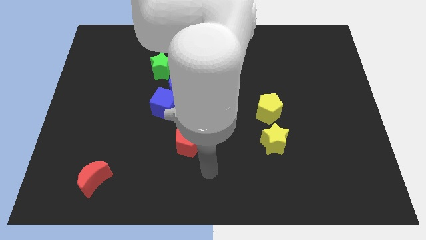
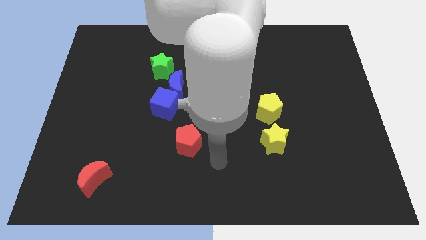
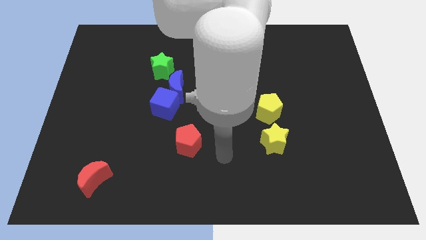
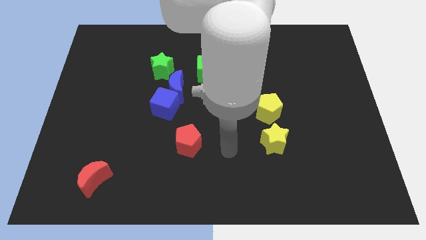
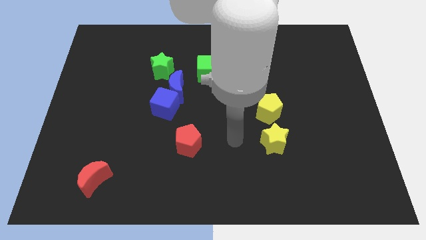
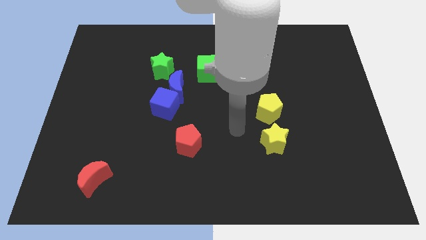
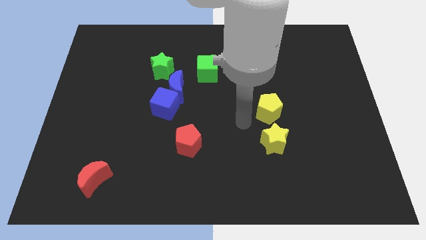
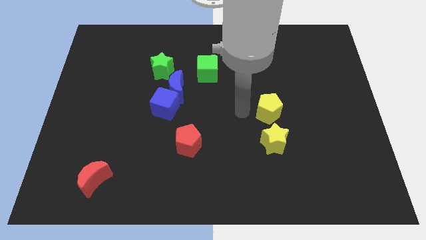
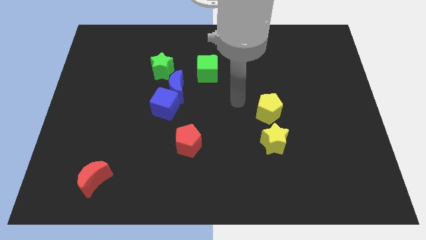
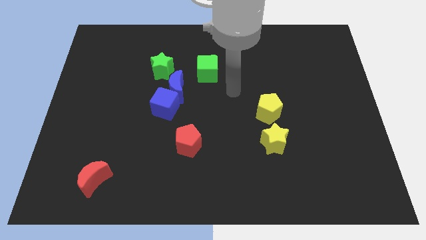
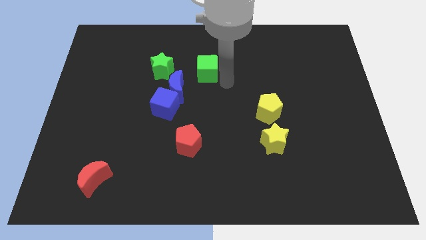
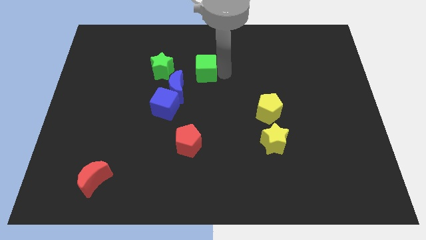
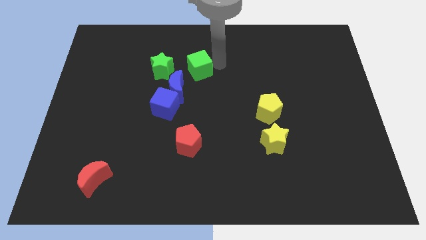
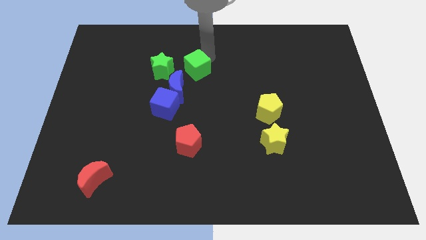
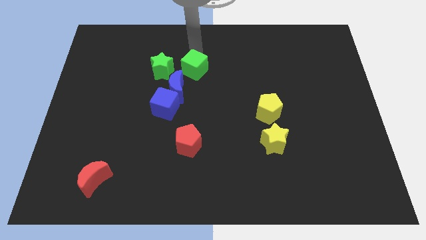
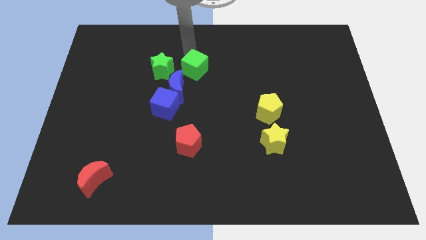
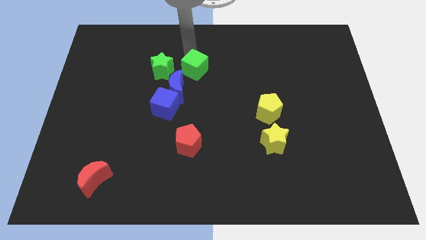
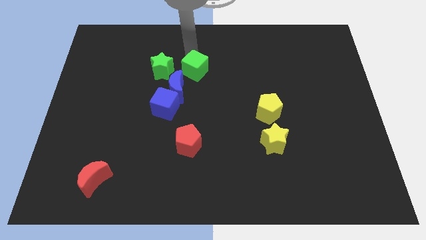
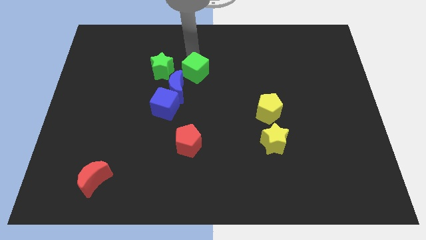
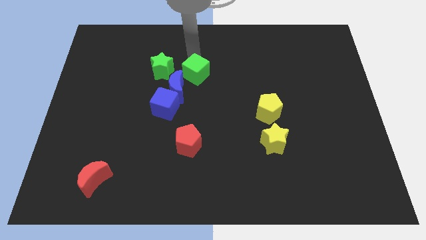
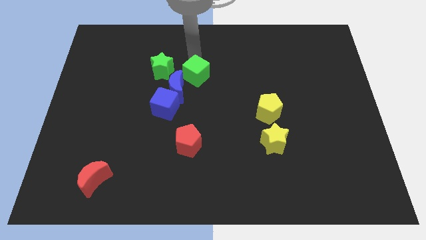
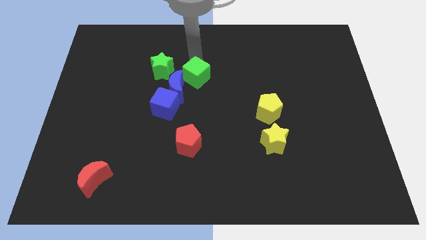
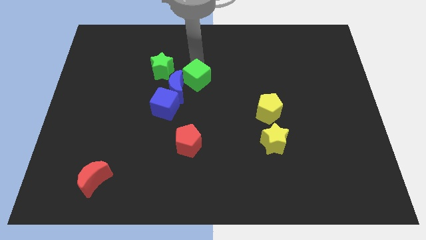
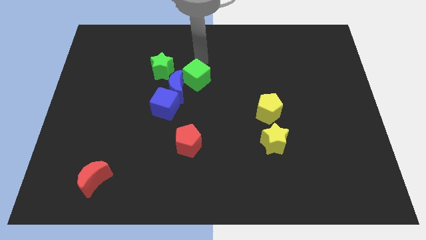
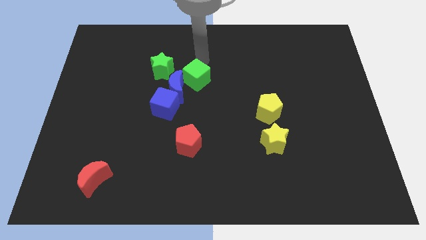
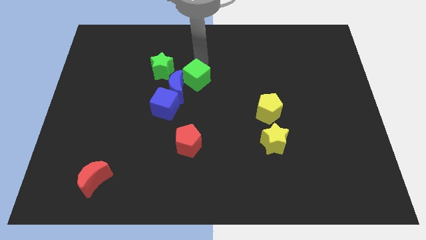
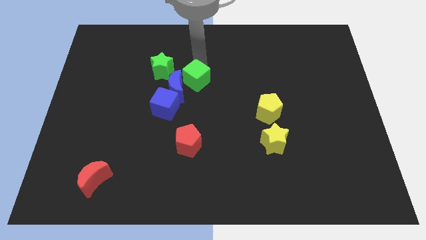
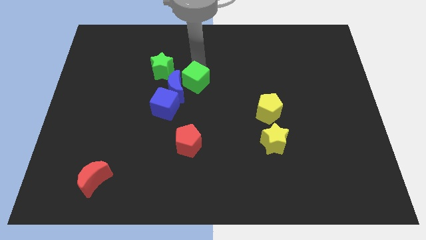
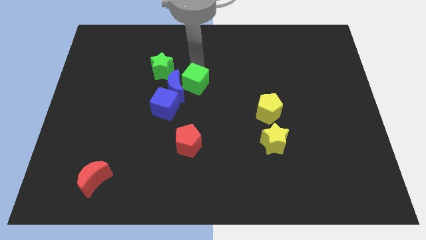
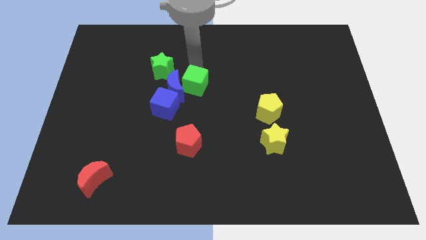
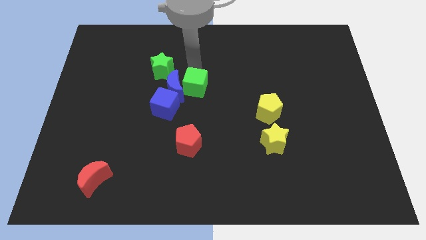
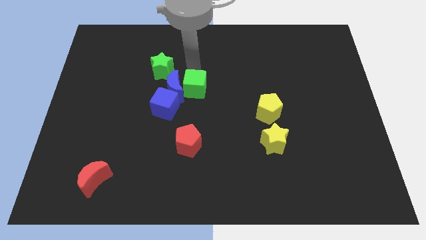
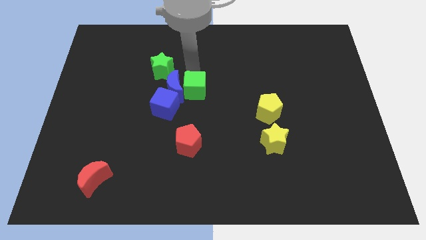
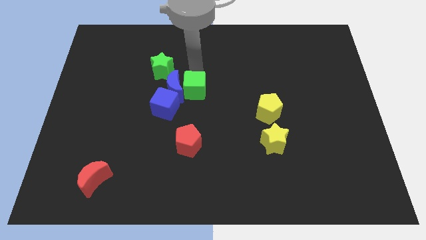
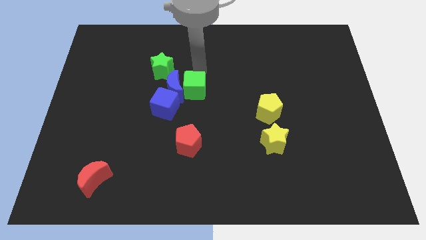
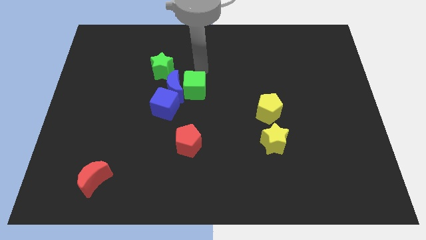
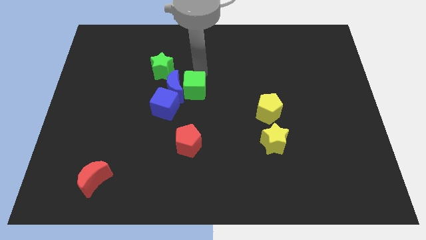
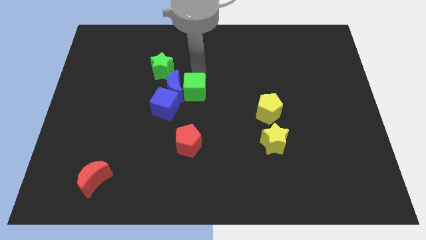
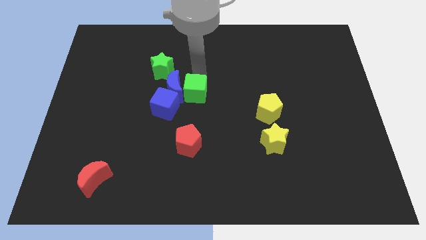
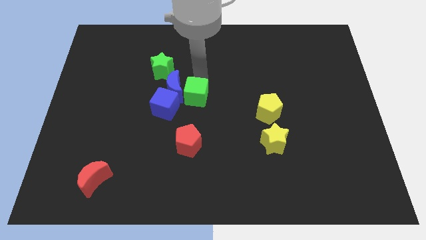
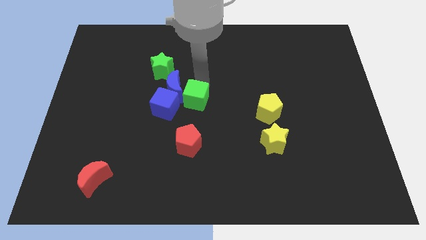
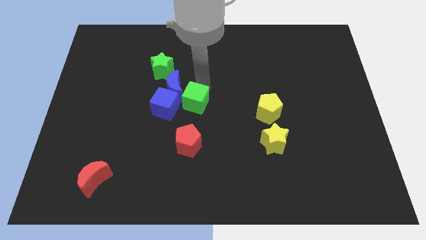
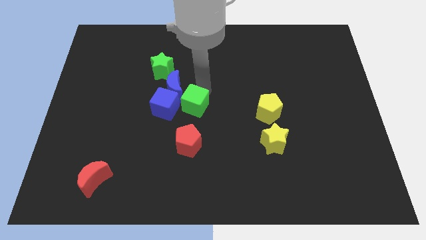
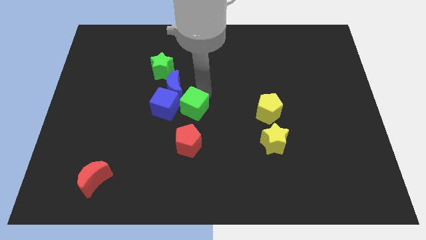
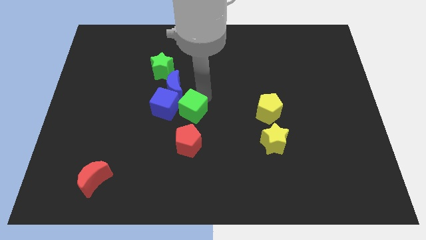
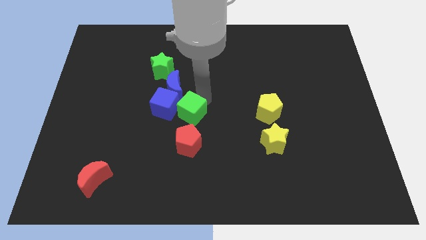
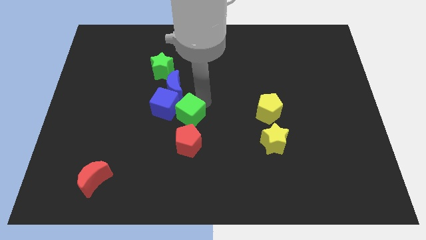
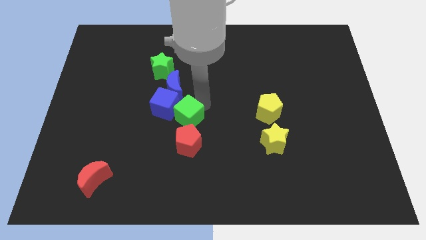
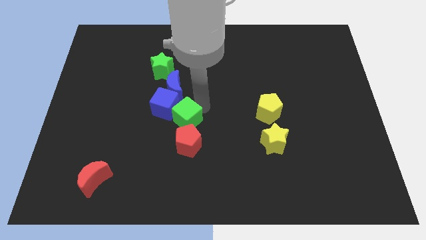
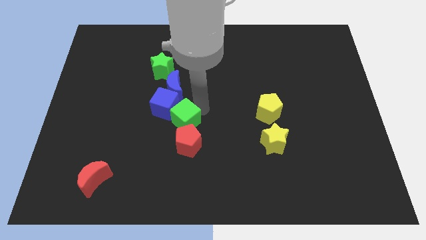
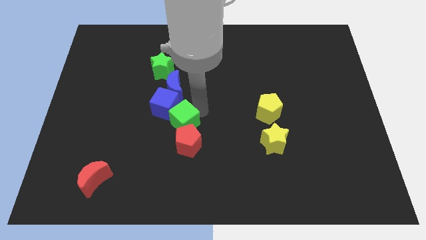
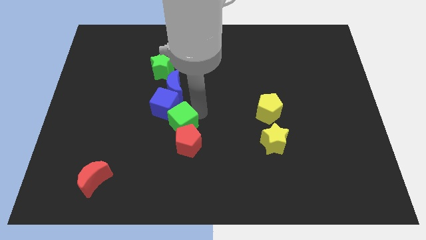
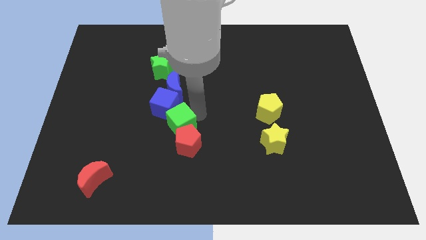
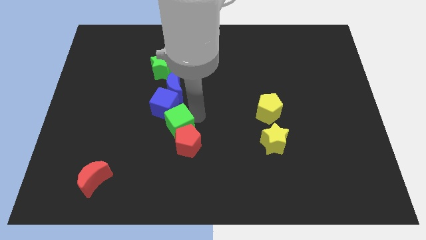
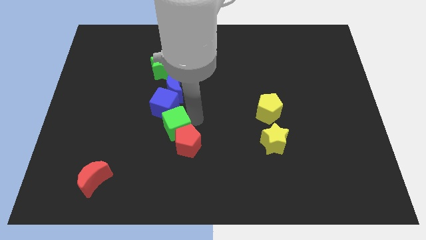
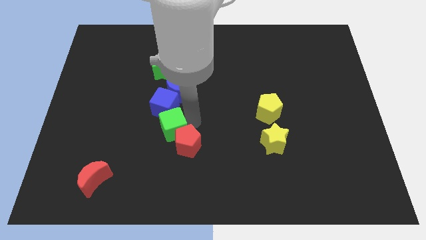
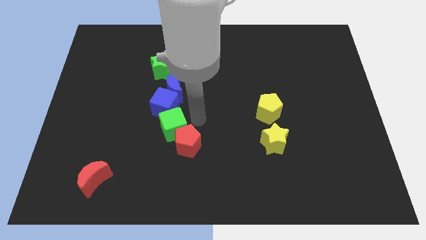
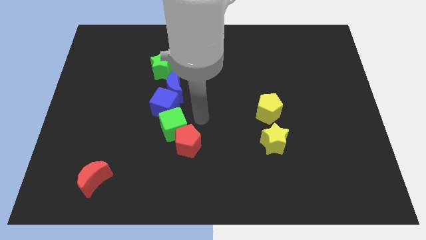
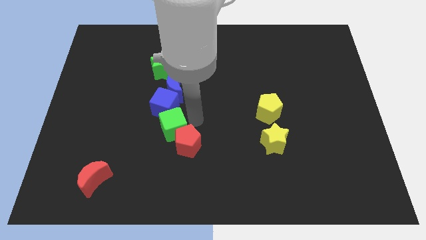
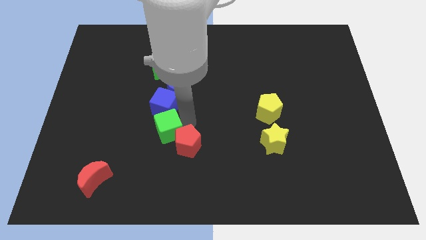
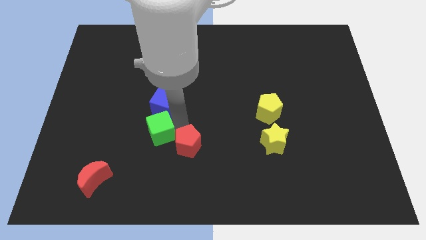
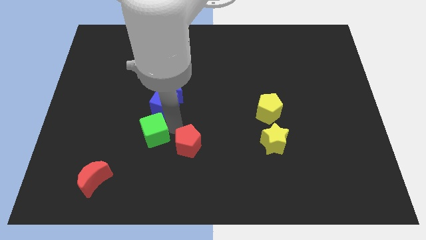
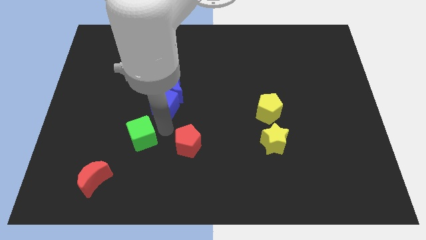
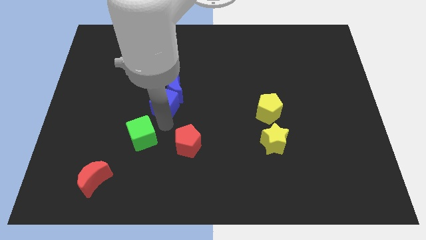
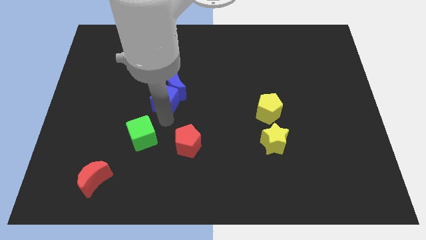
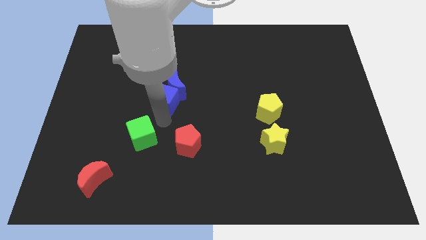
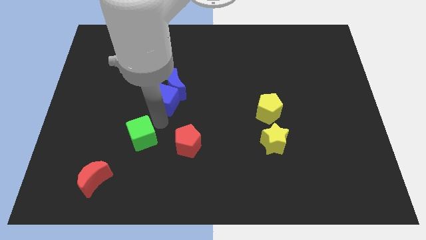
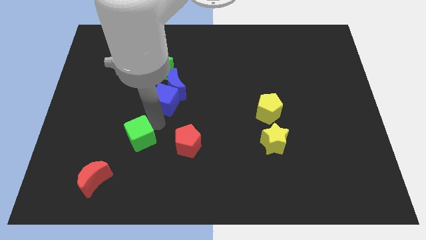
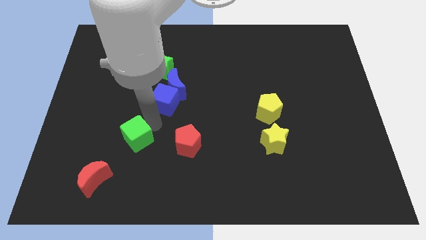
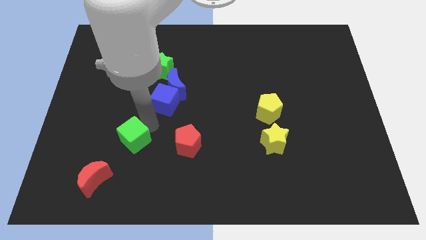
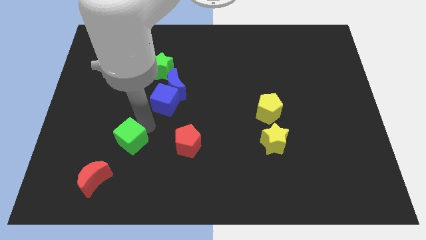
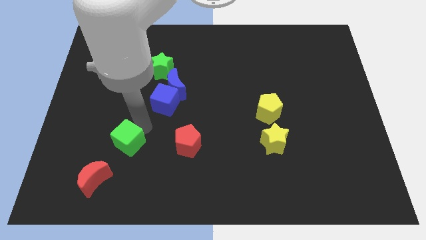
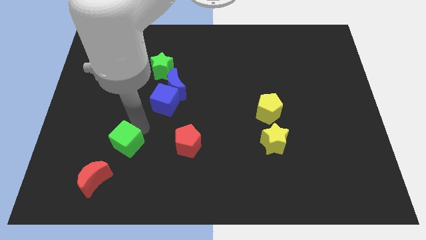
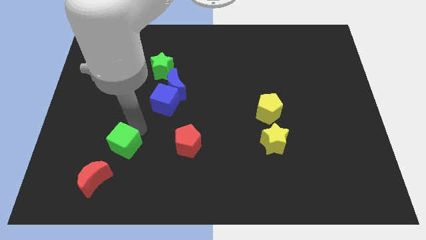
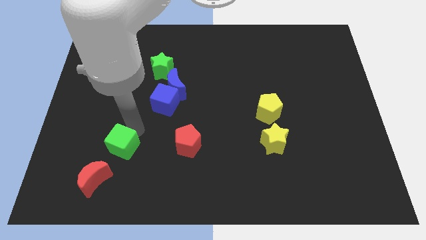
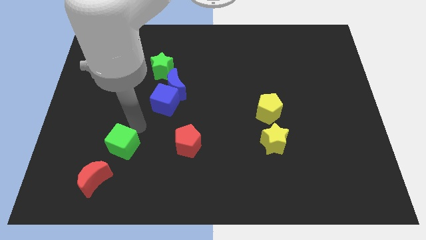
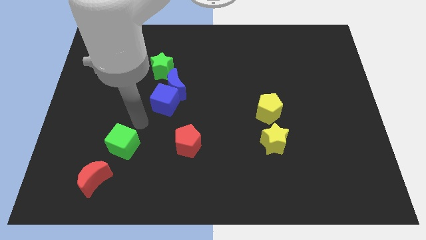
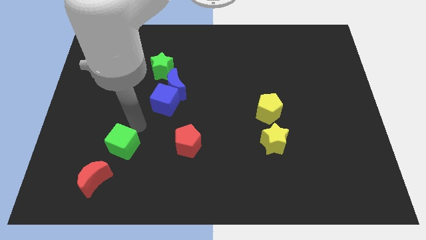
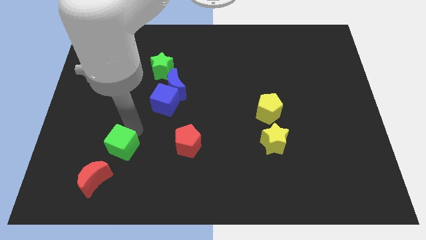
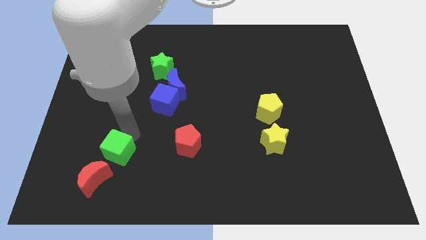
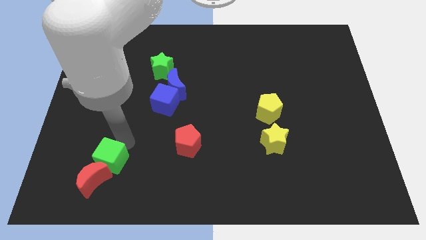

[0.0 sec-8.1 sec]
move the green cube close to the red moon
